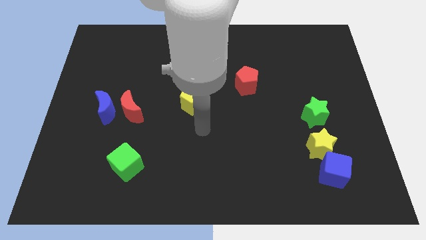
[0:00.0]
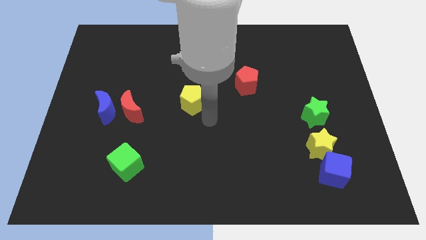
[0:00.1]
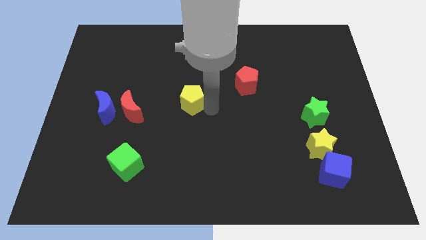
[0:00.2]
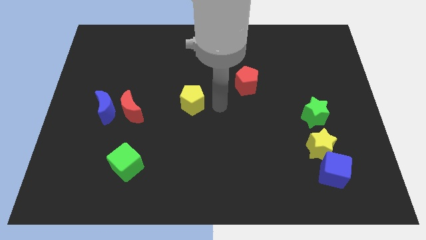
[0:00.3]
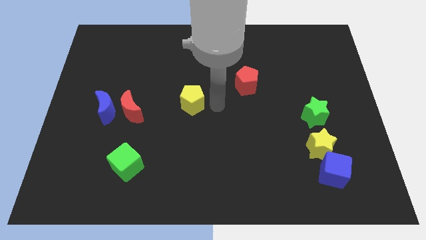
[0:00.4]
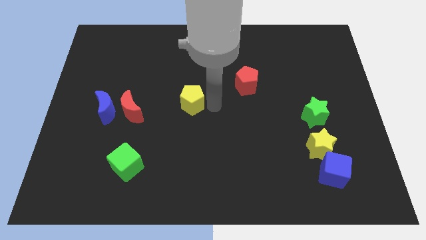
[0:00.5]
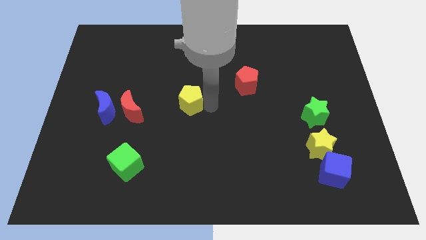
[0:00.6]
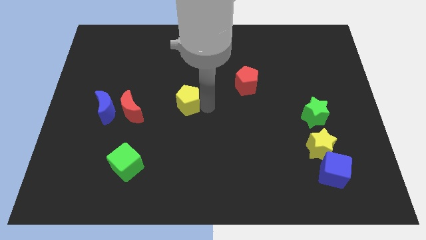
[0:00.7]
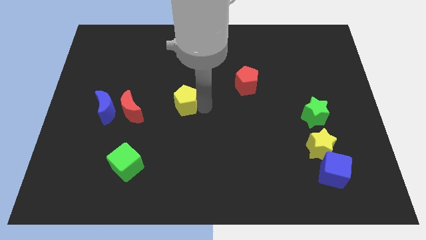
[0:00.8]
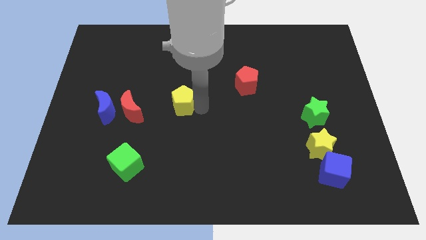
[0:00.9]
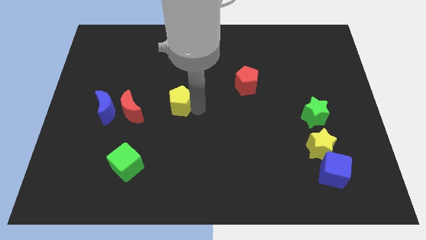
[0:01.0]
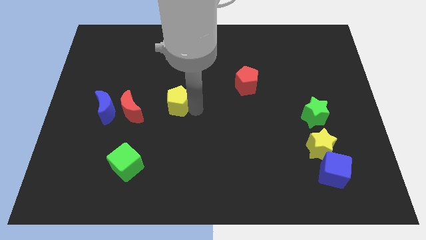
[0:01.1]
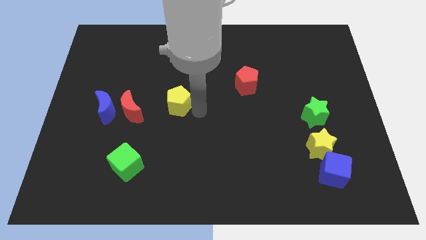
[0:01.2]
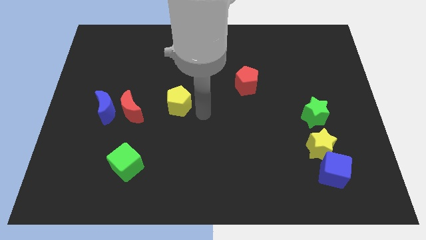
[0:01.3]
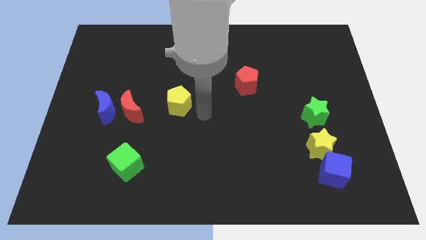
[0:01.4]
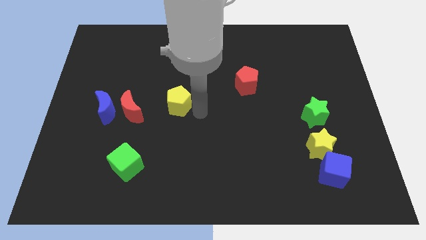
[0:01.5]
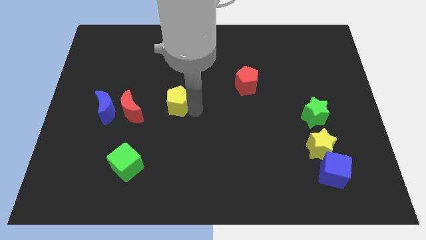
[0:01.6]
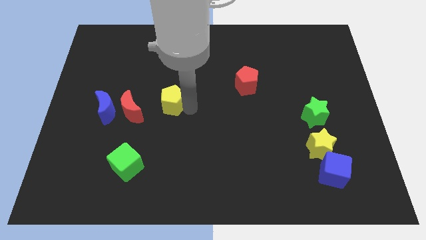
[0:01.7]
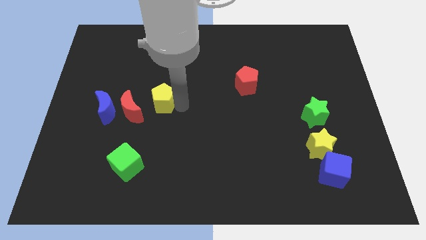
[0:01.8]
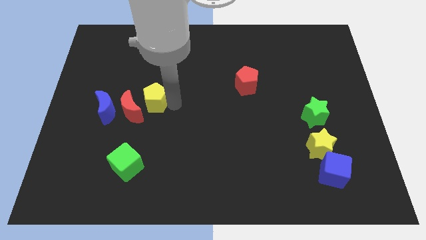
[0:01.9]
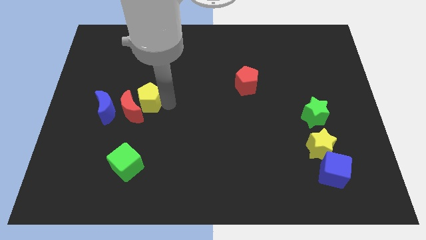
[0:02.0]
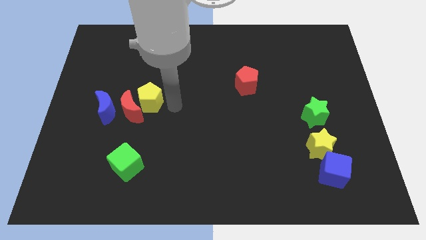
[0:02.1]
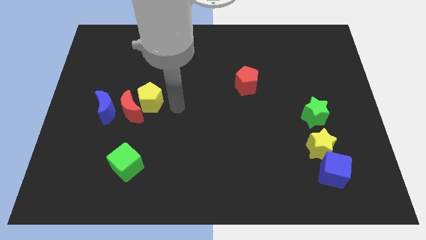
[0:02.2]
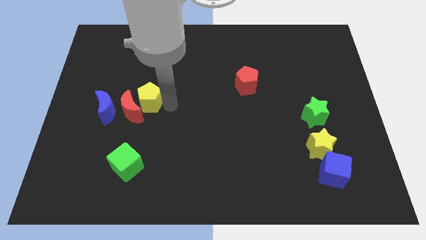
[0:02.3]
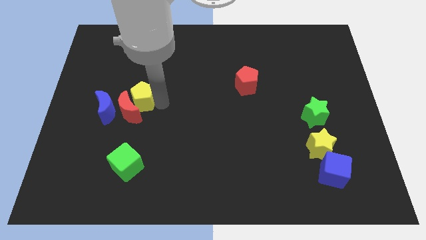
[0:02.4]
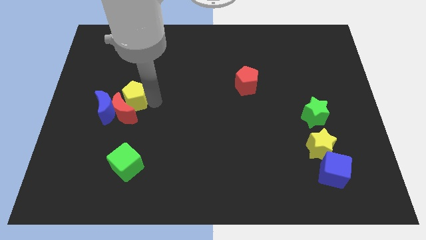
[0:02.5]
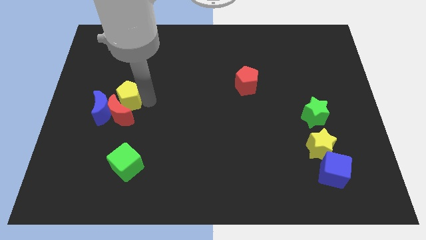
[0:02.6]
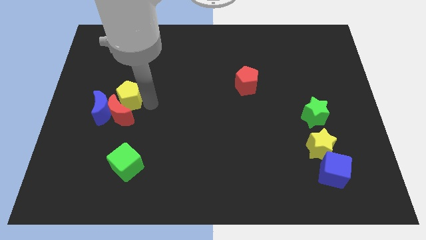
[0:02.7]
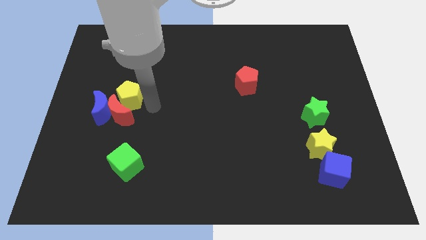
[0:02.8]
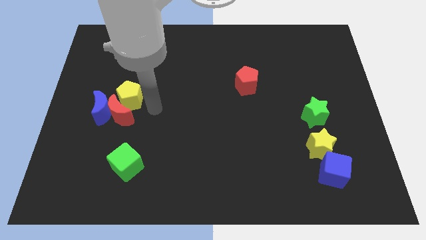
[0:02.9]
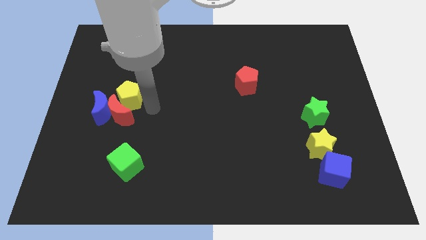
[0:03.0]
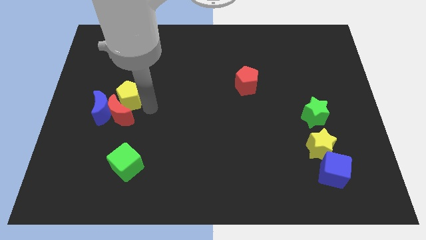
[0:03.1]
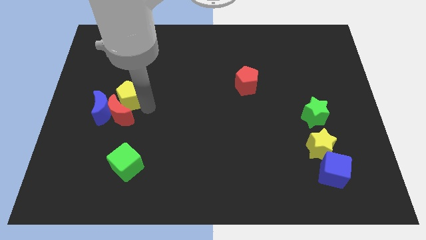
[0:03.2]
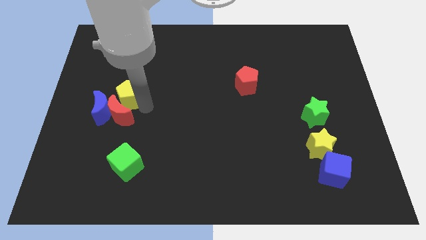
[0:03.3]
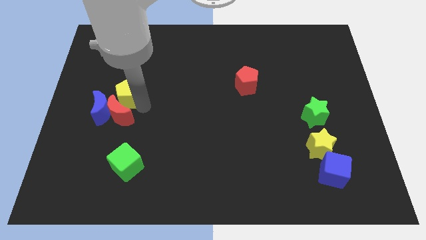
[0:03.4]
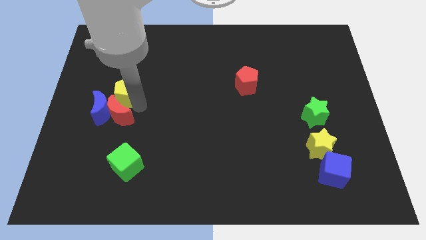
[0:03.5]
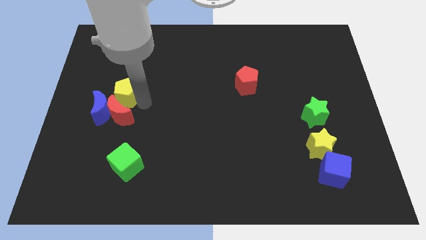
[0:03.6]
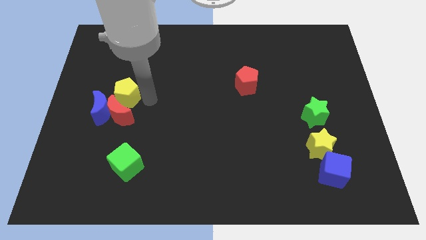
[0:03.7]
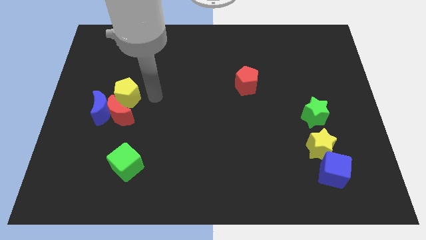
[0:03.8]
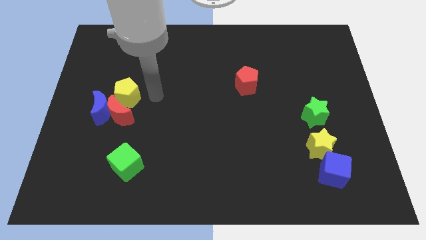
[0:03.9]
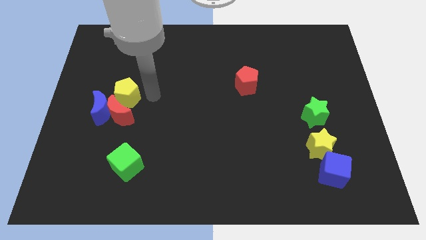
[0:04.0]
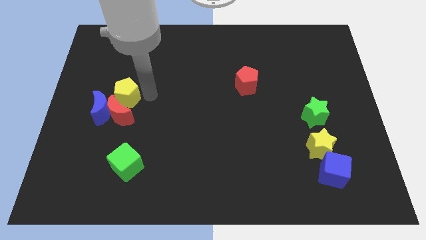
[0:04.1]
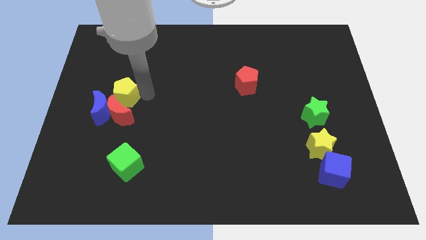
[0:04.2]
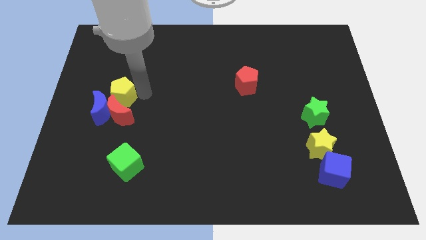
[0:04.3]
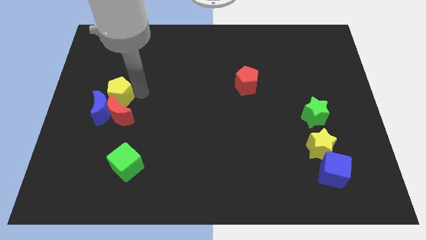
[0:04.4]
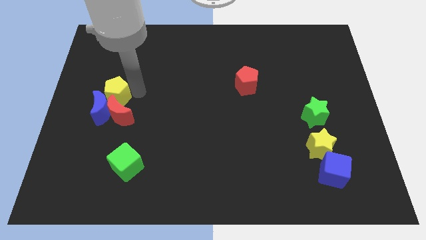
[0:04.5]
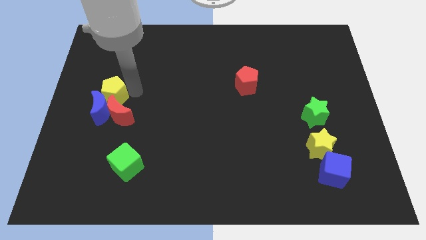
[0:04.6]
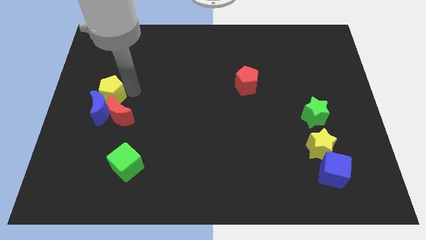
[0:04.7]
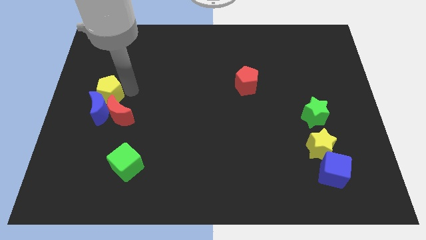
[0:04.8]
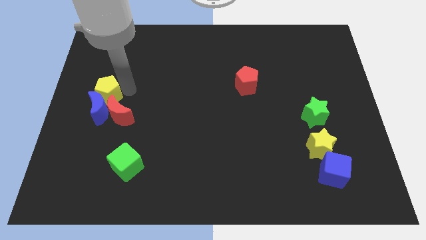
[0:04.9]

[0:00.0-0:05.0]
push the yellow pentagon to the left side
